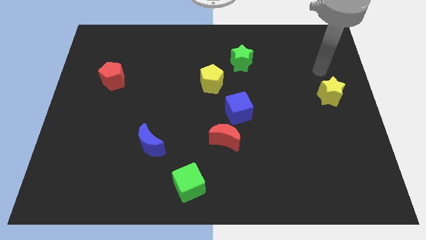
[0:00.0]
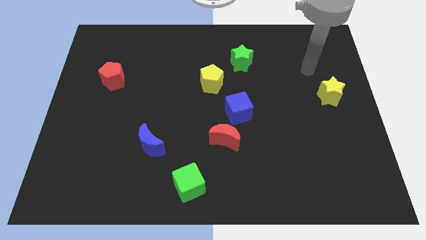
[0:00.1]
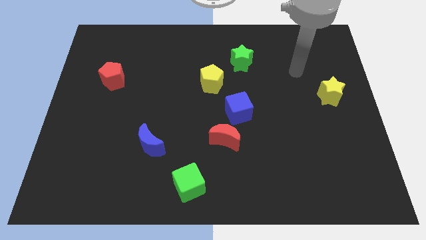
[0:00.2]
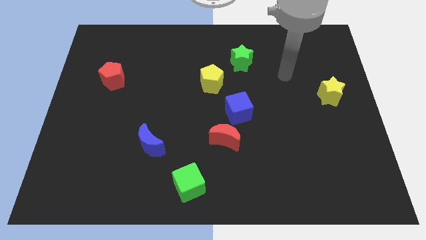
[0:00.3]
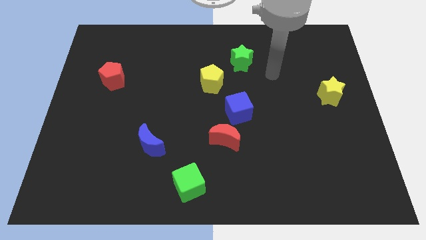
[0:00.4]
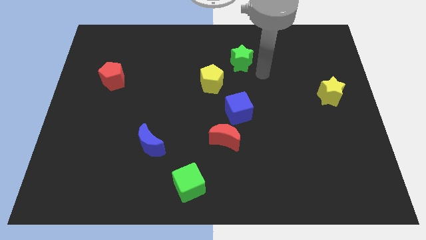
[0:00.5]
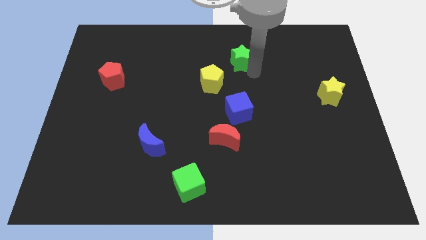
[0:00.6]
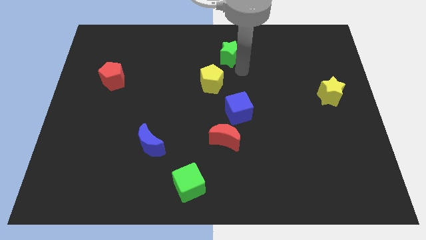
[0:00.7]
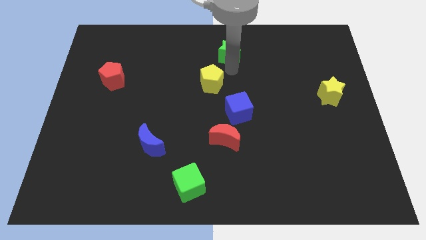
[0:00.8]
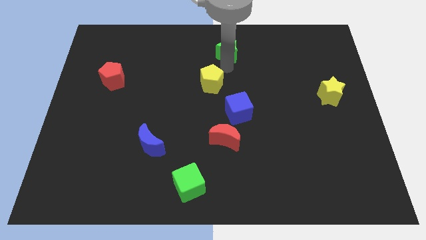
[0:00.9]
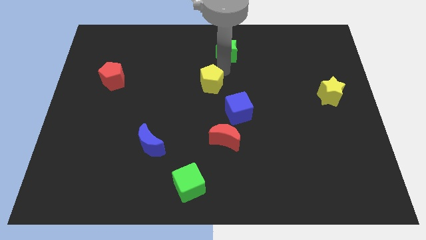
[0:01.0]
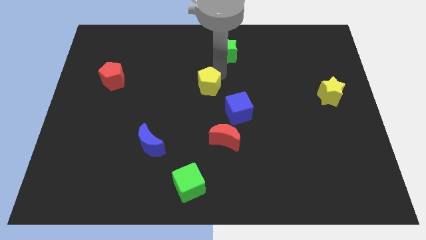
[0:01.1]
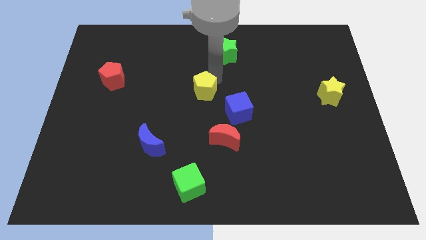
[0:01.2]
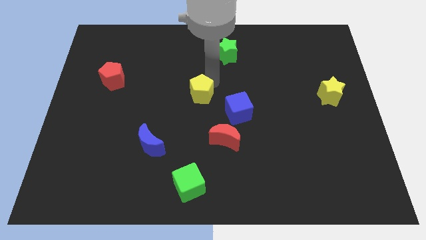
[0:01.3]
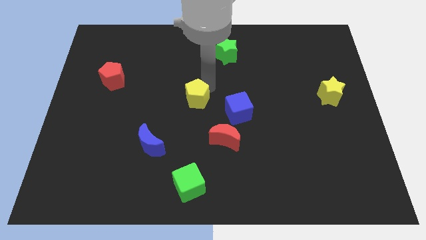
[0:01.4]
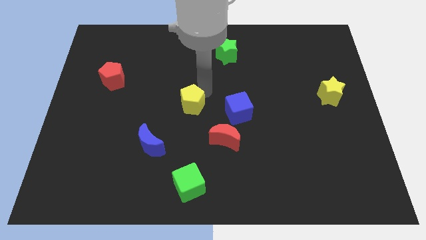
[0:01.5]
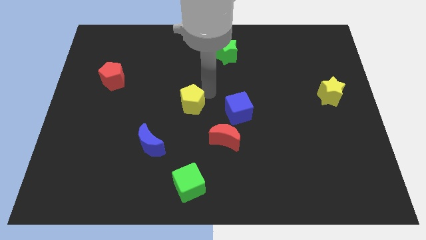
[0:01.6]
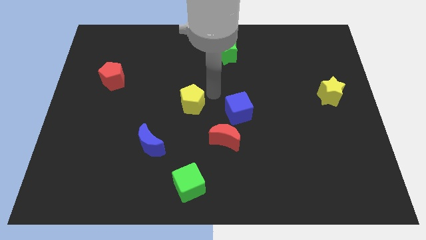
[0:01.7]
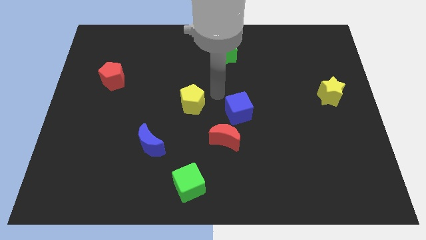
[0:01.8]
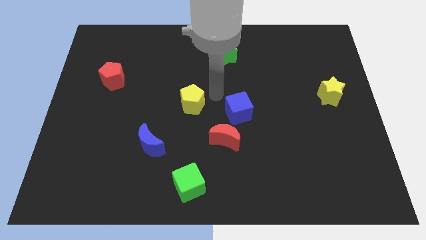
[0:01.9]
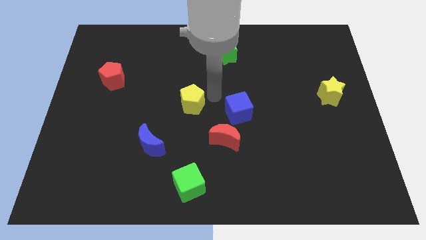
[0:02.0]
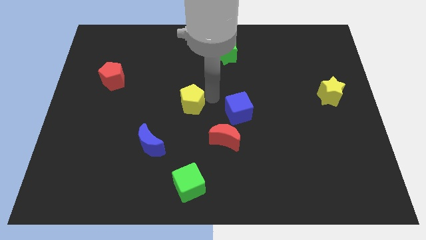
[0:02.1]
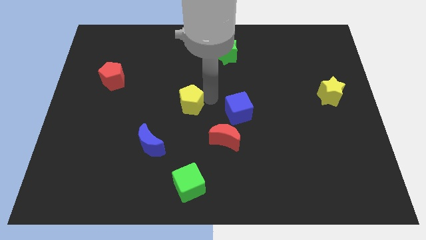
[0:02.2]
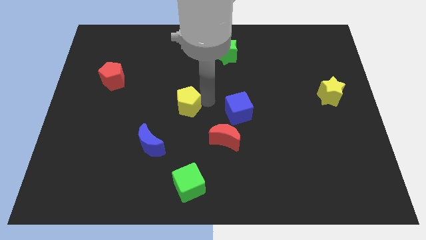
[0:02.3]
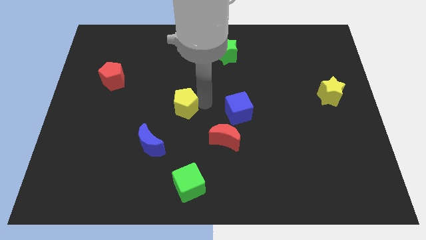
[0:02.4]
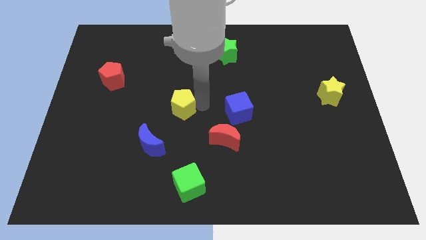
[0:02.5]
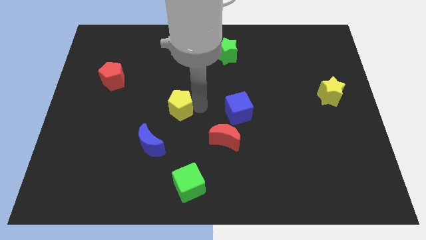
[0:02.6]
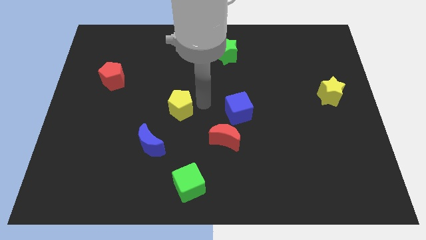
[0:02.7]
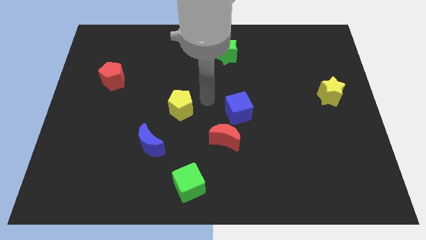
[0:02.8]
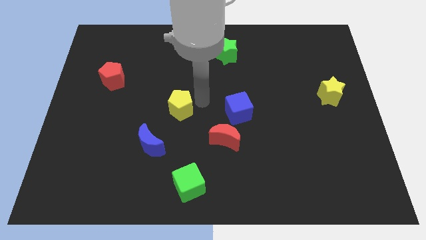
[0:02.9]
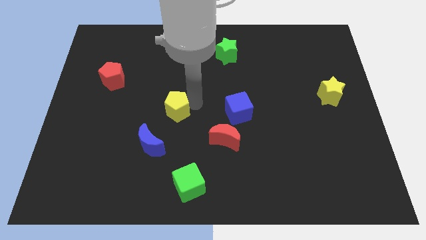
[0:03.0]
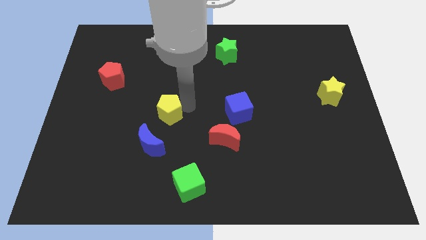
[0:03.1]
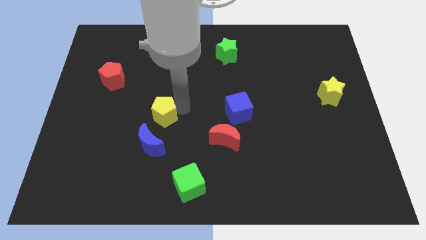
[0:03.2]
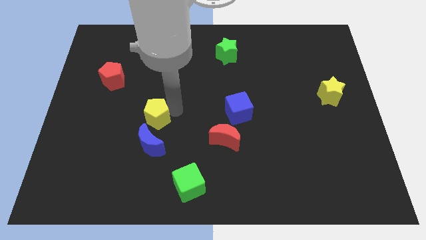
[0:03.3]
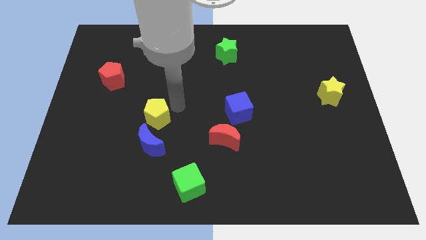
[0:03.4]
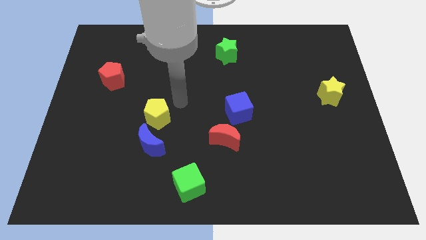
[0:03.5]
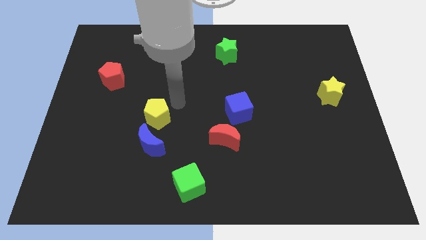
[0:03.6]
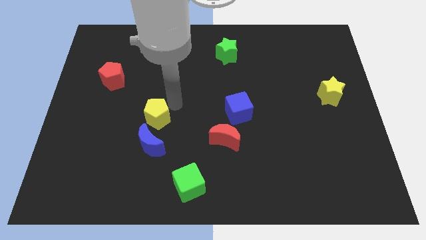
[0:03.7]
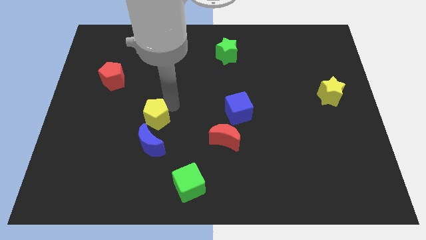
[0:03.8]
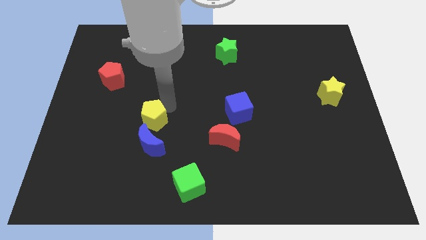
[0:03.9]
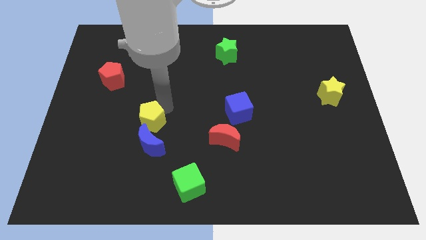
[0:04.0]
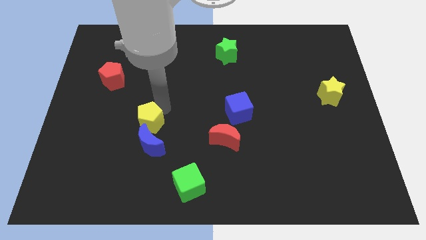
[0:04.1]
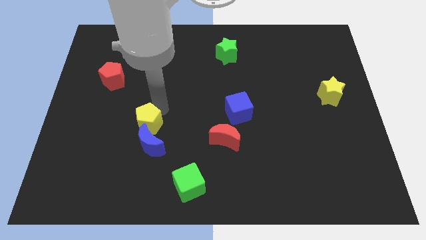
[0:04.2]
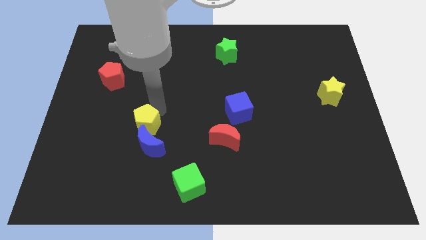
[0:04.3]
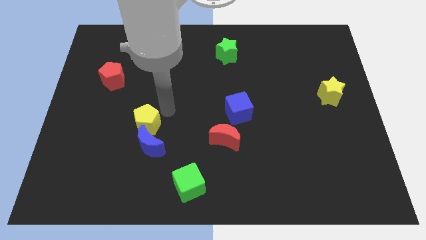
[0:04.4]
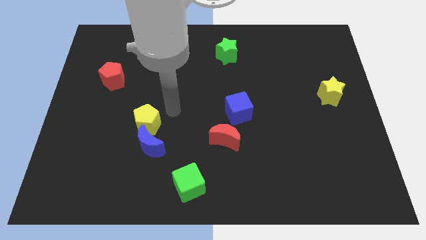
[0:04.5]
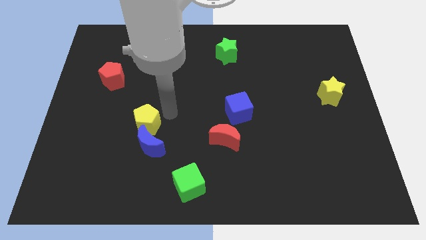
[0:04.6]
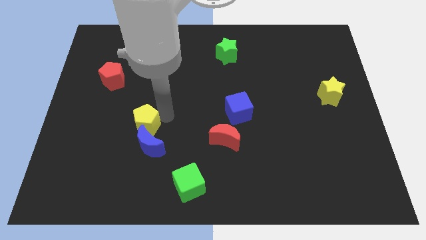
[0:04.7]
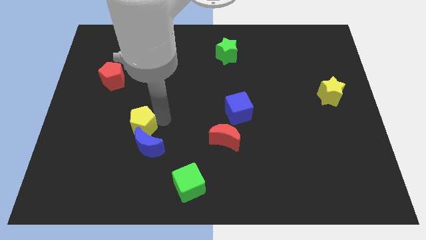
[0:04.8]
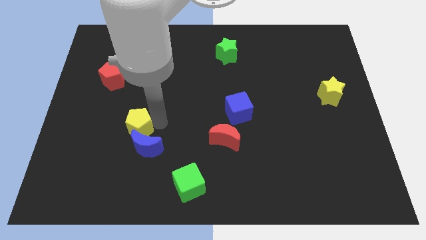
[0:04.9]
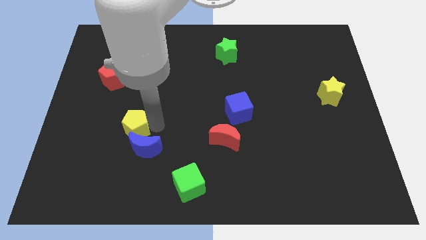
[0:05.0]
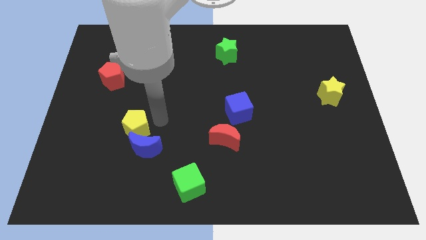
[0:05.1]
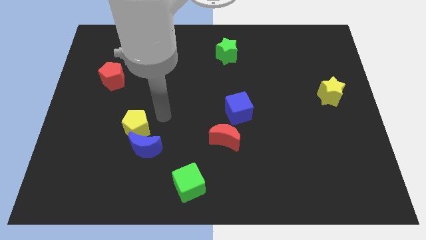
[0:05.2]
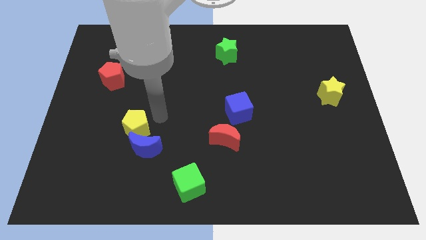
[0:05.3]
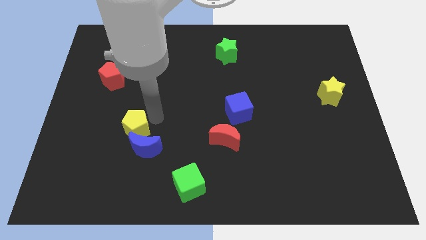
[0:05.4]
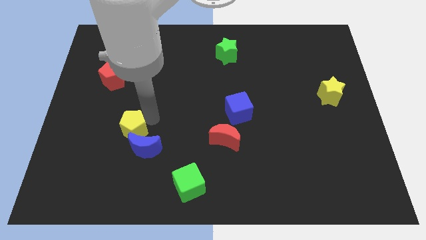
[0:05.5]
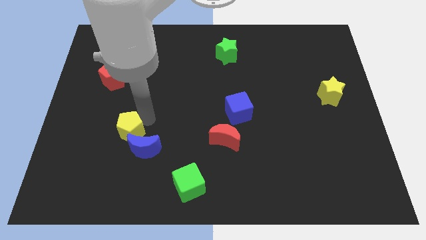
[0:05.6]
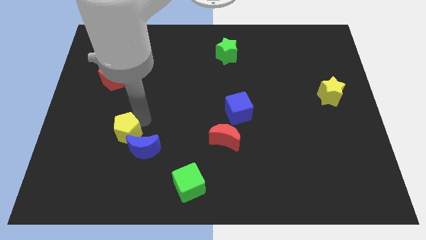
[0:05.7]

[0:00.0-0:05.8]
push the yellow pentagon just left of the blue moon

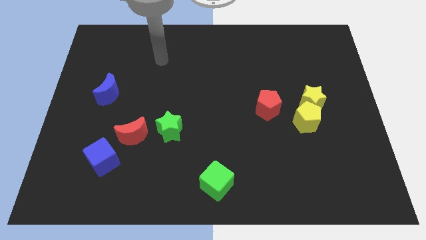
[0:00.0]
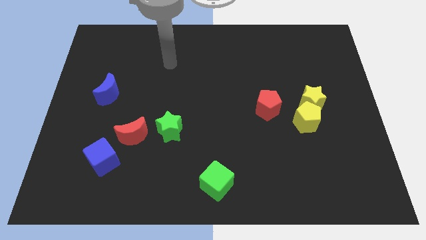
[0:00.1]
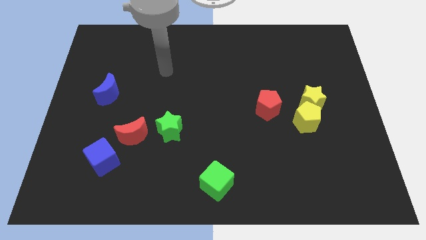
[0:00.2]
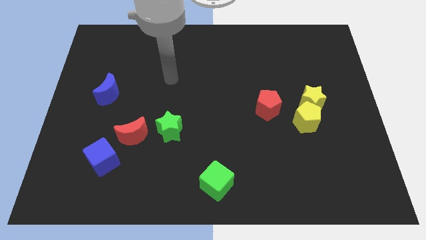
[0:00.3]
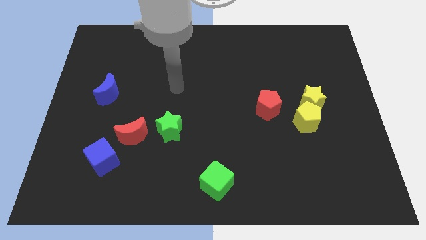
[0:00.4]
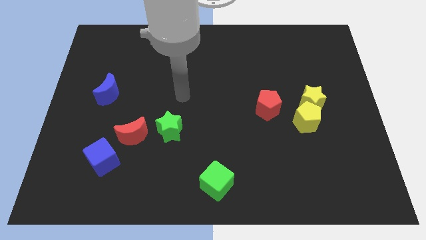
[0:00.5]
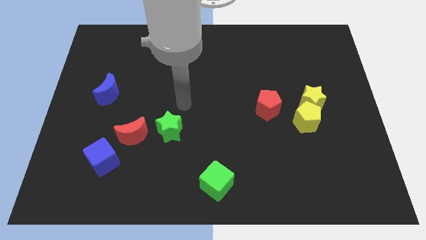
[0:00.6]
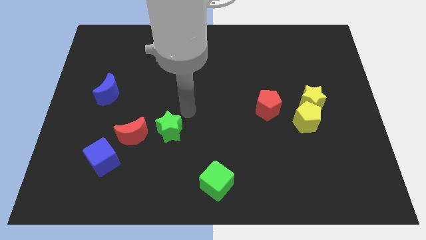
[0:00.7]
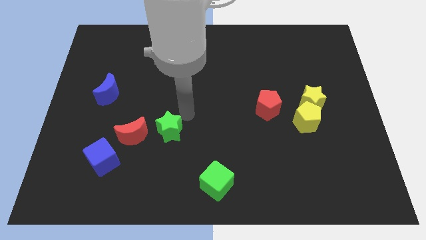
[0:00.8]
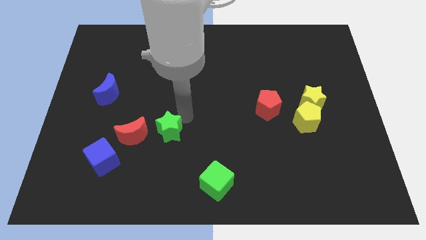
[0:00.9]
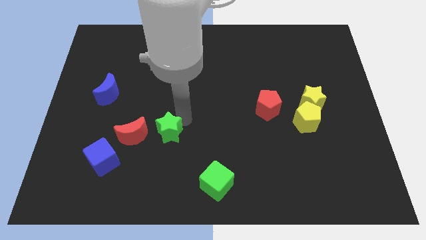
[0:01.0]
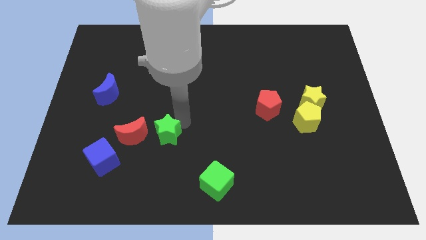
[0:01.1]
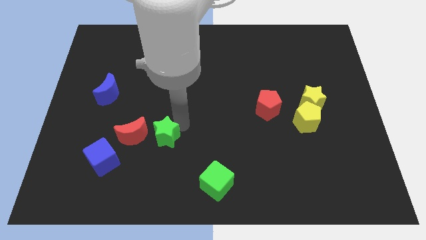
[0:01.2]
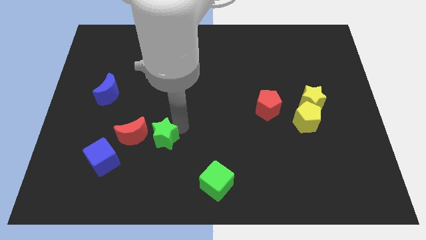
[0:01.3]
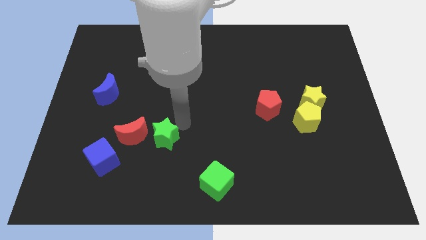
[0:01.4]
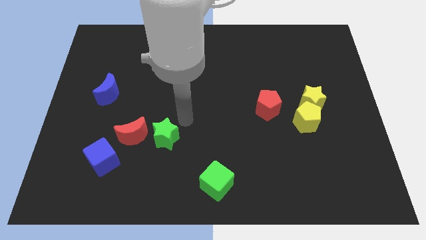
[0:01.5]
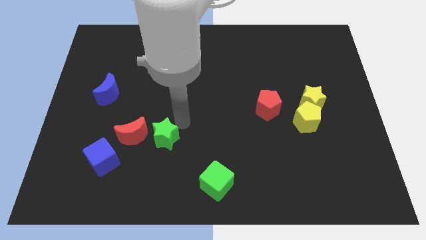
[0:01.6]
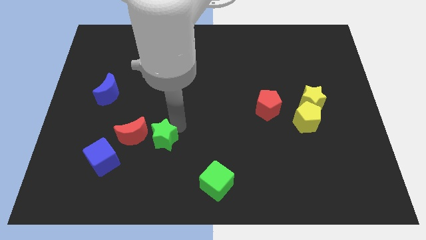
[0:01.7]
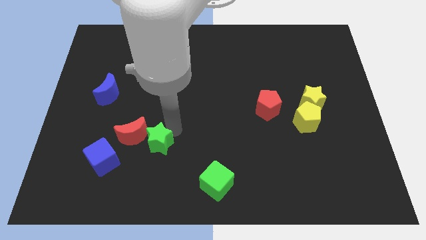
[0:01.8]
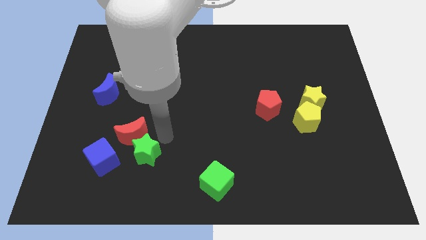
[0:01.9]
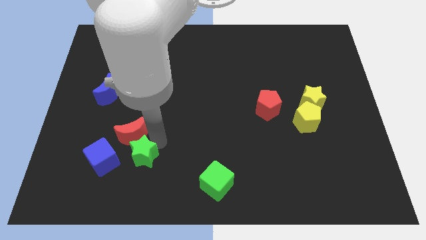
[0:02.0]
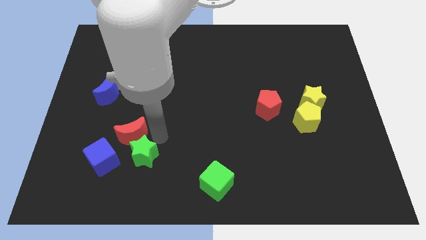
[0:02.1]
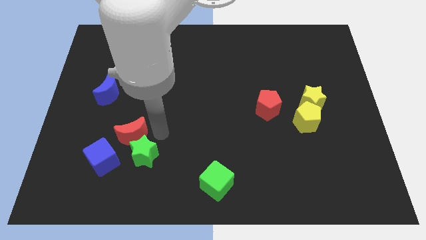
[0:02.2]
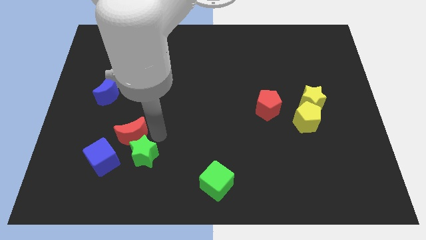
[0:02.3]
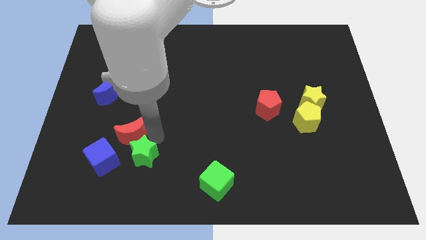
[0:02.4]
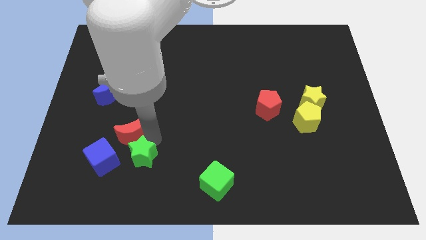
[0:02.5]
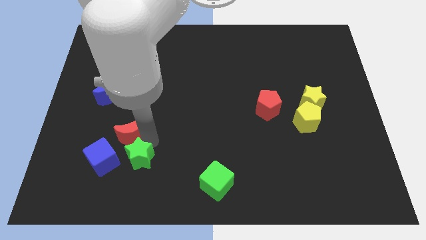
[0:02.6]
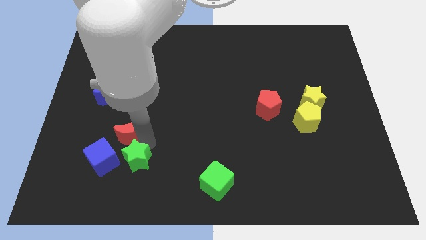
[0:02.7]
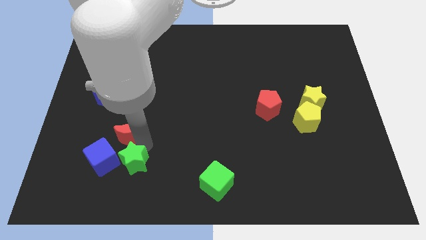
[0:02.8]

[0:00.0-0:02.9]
push the green star to the bottom right side of the blue cube
